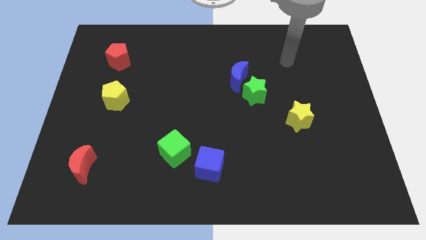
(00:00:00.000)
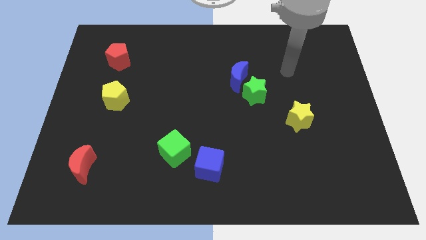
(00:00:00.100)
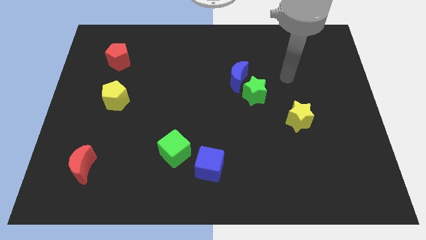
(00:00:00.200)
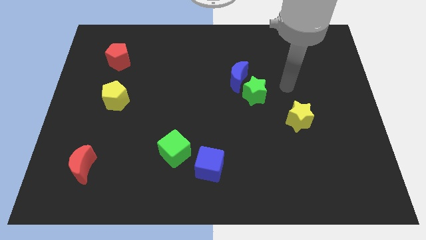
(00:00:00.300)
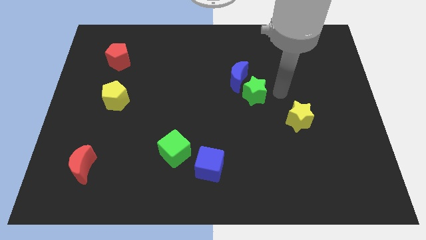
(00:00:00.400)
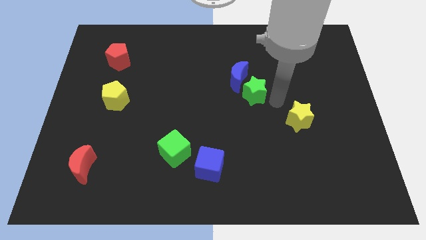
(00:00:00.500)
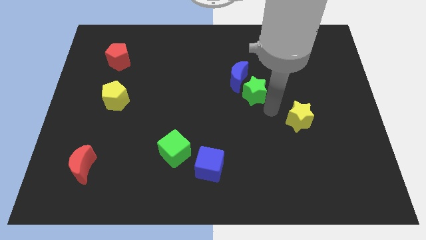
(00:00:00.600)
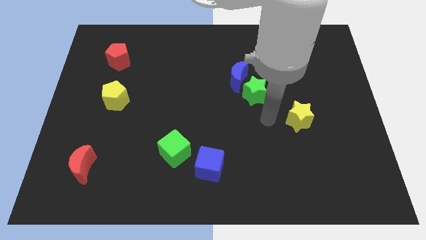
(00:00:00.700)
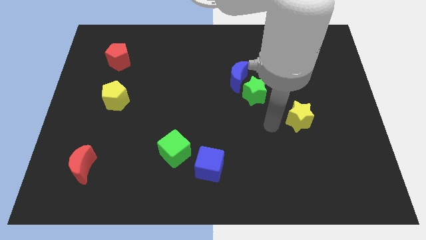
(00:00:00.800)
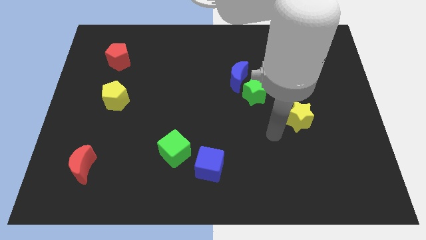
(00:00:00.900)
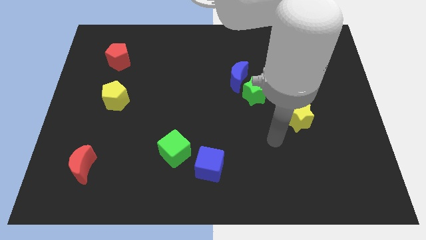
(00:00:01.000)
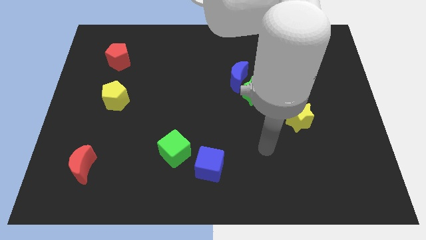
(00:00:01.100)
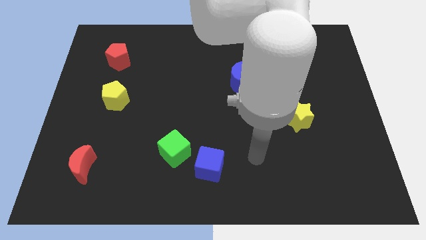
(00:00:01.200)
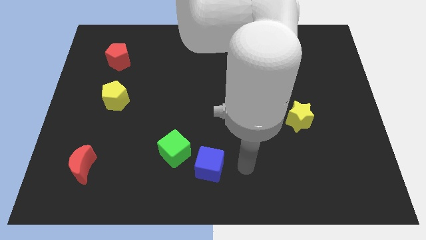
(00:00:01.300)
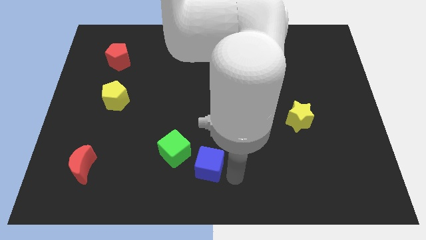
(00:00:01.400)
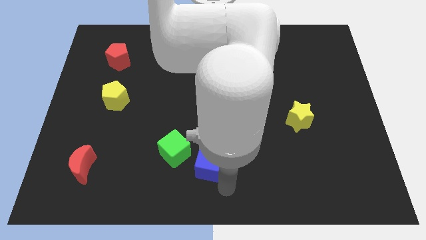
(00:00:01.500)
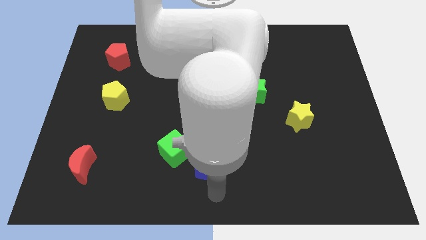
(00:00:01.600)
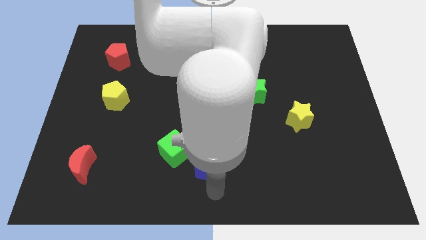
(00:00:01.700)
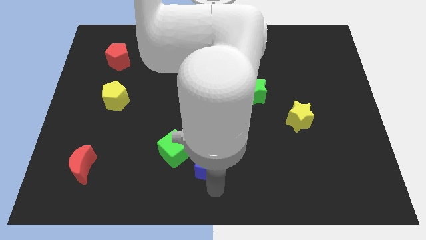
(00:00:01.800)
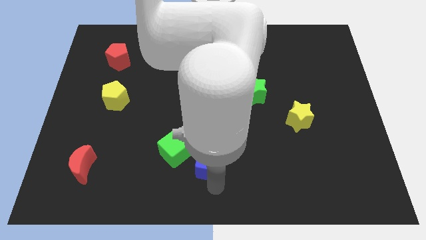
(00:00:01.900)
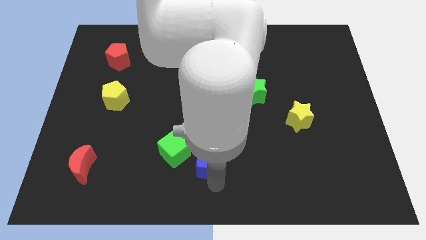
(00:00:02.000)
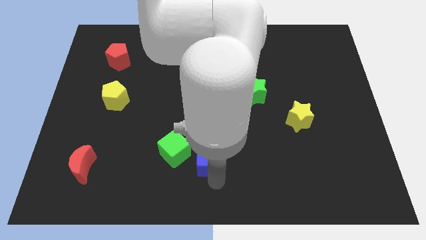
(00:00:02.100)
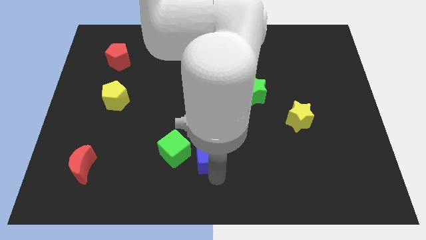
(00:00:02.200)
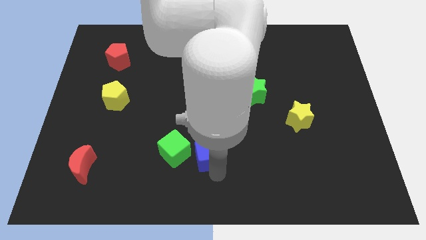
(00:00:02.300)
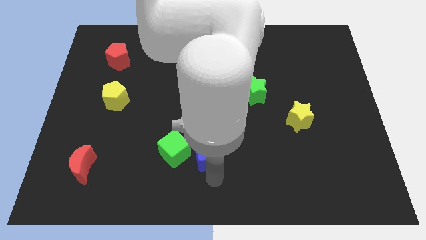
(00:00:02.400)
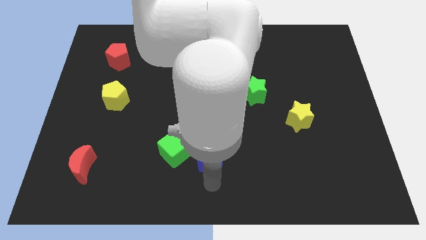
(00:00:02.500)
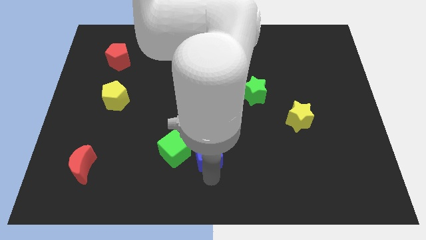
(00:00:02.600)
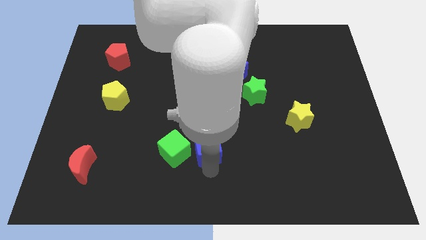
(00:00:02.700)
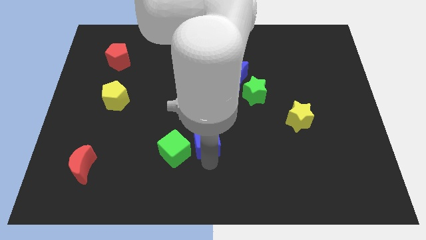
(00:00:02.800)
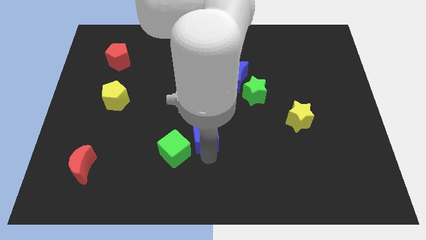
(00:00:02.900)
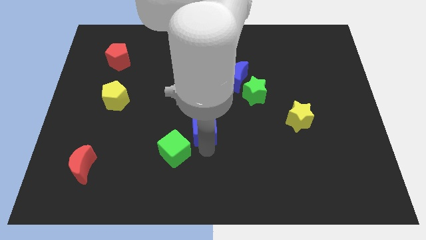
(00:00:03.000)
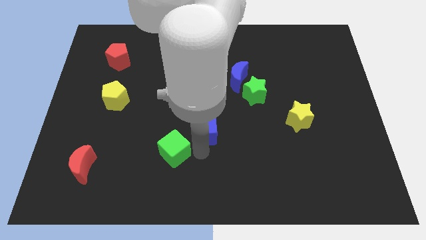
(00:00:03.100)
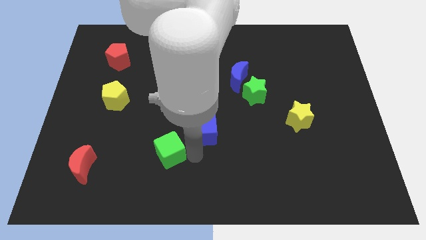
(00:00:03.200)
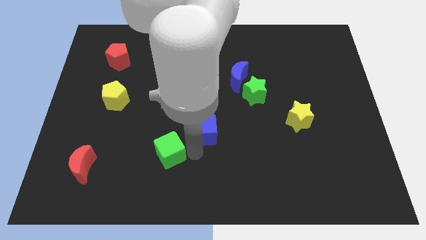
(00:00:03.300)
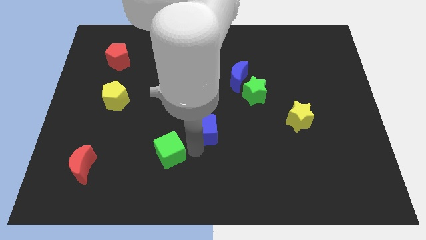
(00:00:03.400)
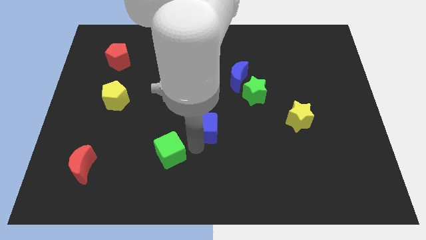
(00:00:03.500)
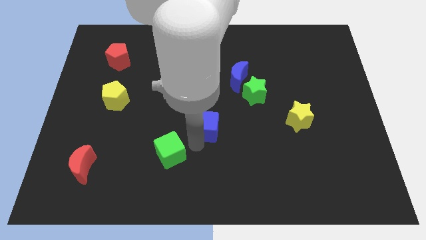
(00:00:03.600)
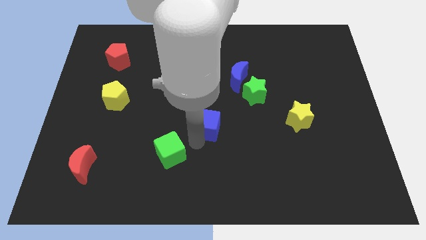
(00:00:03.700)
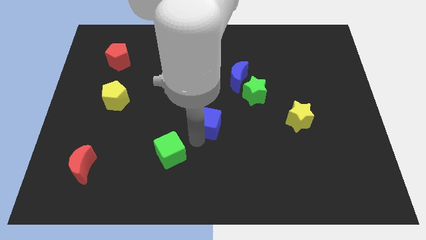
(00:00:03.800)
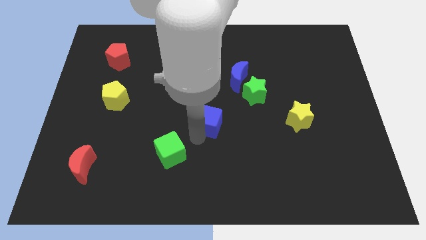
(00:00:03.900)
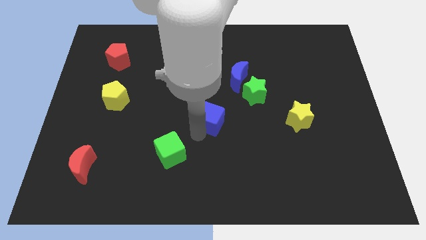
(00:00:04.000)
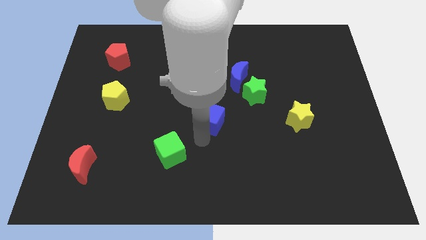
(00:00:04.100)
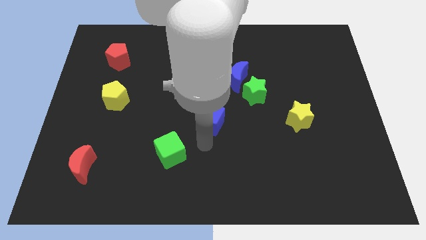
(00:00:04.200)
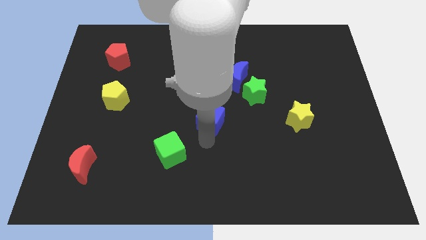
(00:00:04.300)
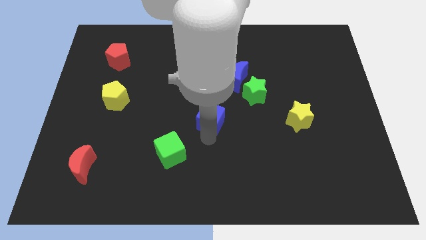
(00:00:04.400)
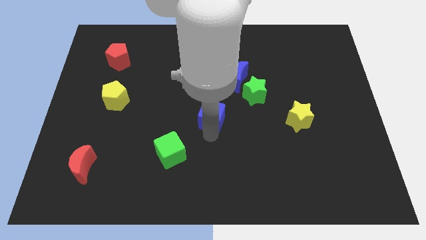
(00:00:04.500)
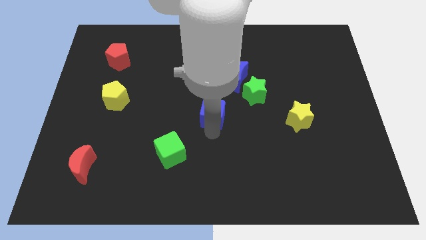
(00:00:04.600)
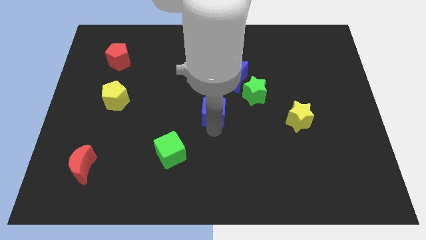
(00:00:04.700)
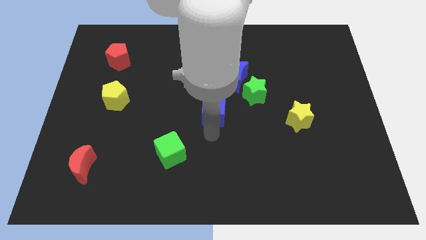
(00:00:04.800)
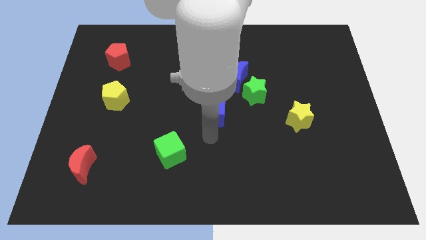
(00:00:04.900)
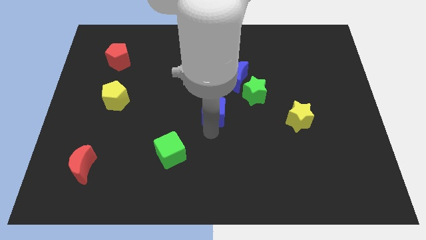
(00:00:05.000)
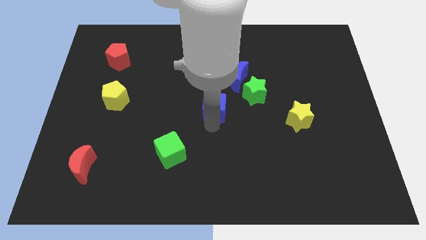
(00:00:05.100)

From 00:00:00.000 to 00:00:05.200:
slide the blue cube to the bottom left side of the blue moon

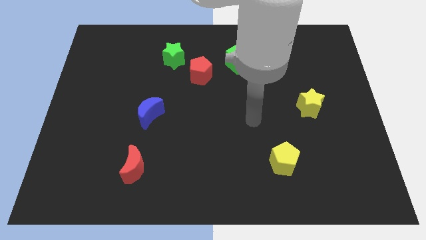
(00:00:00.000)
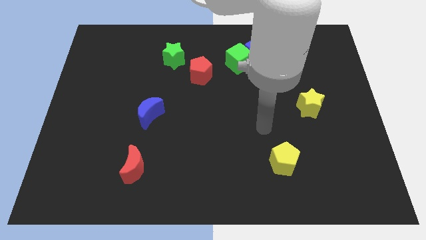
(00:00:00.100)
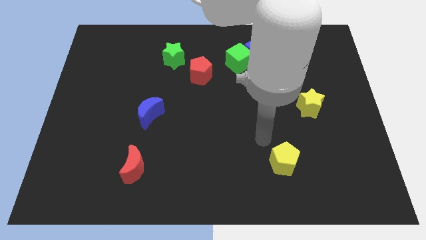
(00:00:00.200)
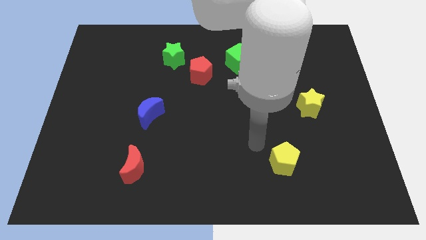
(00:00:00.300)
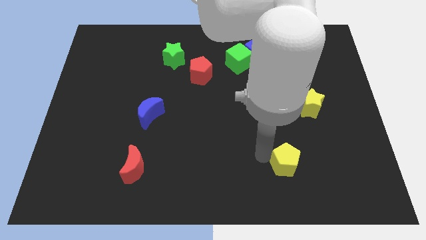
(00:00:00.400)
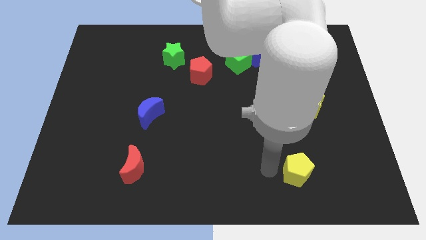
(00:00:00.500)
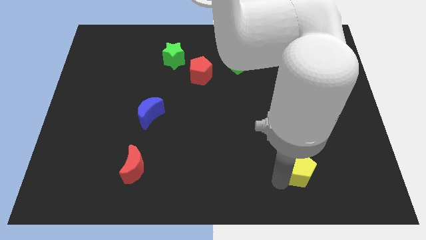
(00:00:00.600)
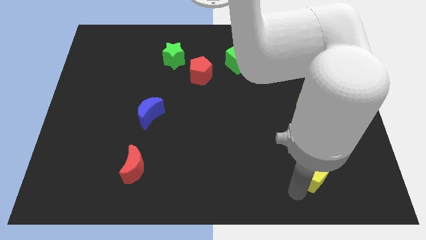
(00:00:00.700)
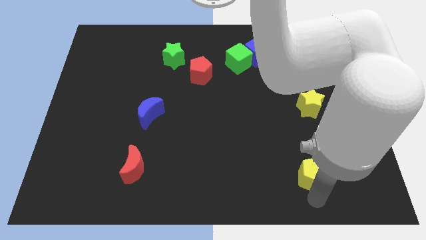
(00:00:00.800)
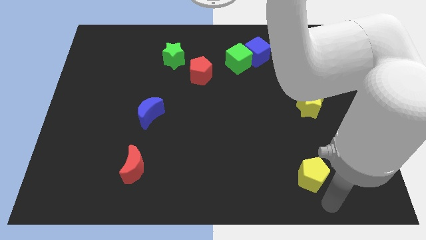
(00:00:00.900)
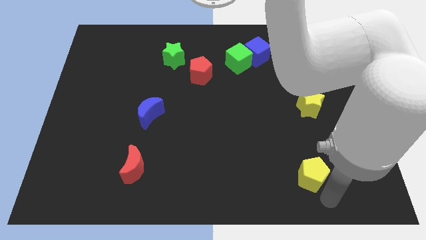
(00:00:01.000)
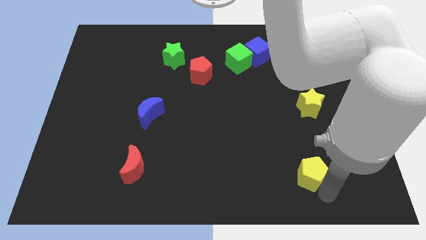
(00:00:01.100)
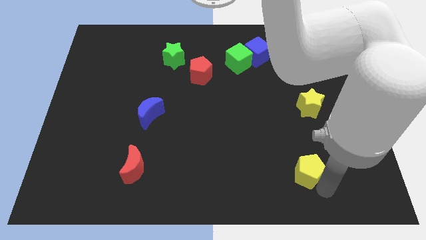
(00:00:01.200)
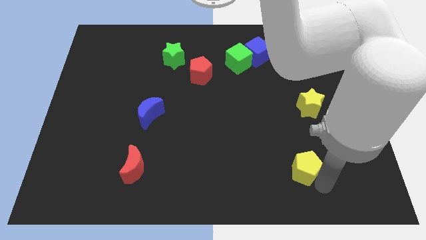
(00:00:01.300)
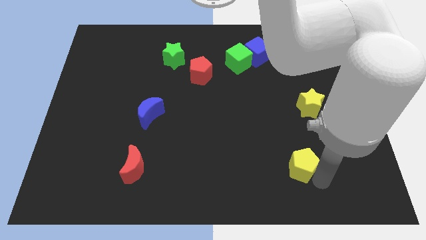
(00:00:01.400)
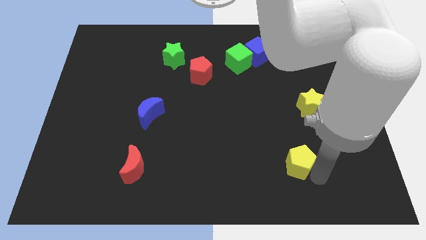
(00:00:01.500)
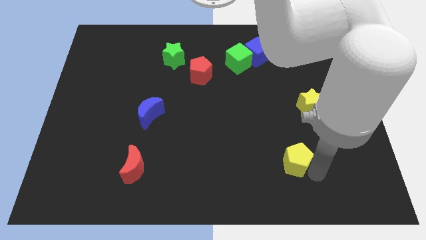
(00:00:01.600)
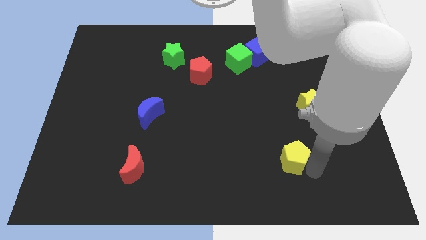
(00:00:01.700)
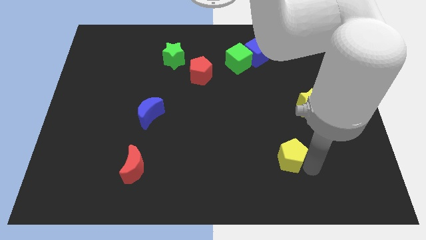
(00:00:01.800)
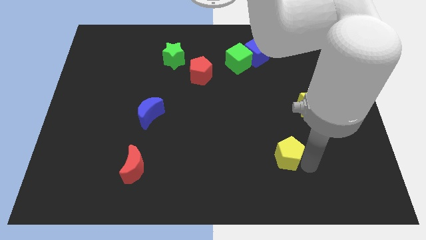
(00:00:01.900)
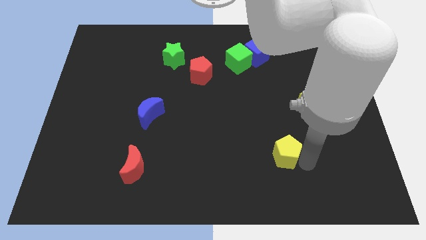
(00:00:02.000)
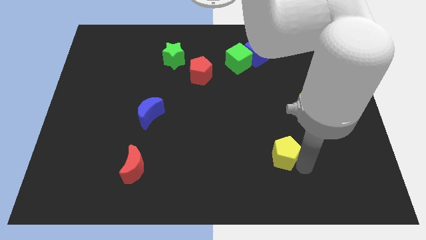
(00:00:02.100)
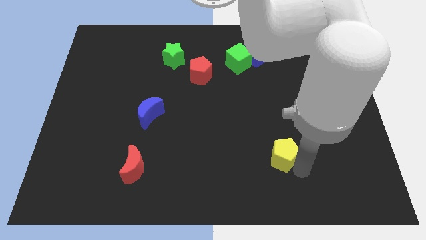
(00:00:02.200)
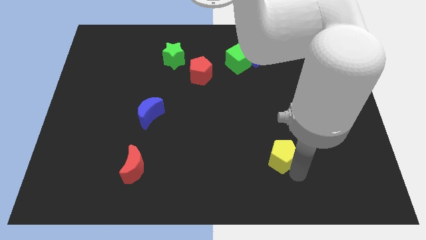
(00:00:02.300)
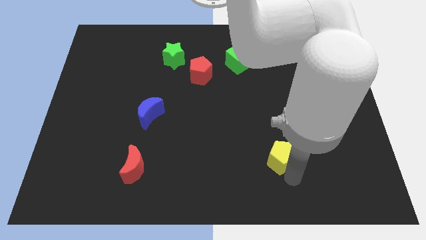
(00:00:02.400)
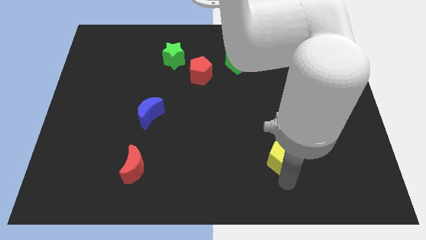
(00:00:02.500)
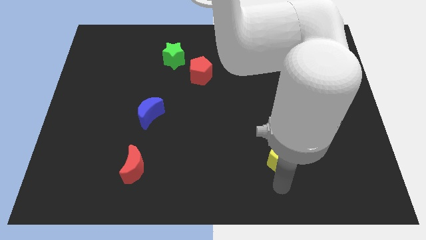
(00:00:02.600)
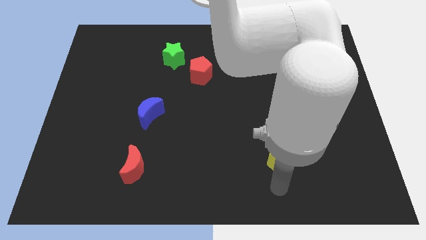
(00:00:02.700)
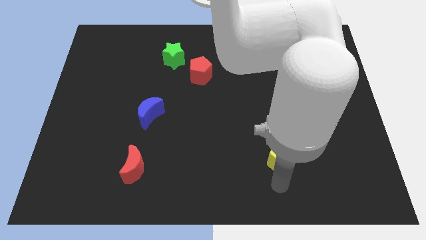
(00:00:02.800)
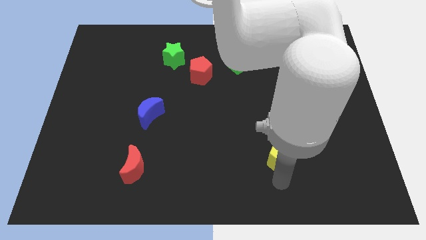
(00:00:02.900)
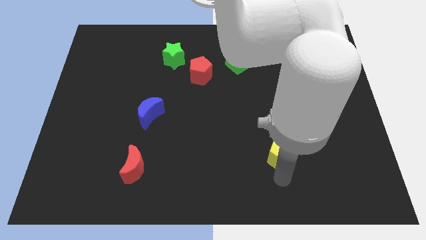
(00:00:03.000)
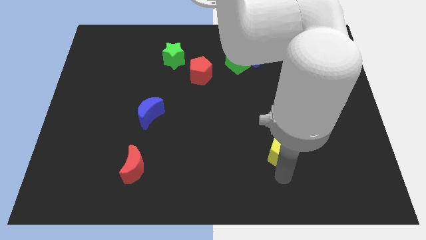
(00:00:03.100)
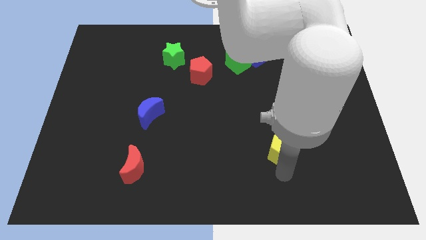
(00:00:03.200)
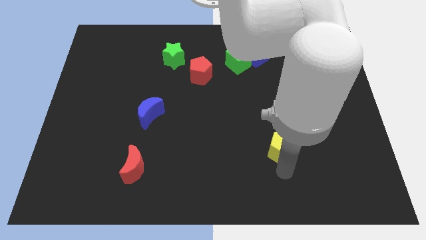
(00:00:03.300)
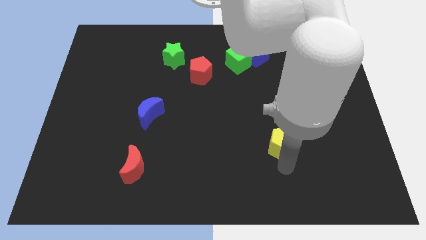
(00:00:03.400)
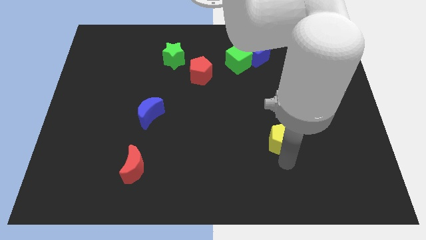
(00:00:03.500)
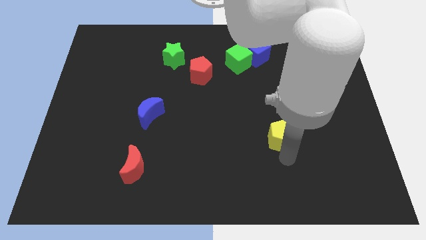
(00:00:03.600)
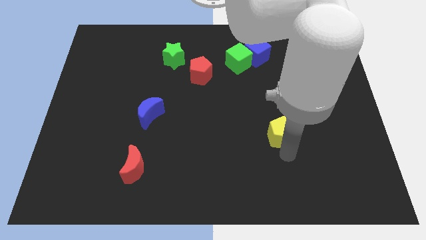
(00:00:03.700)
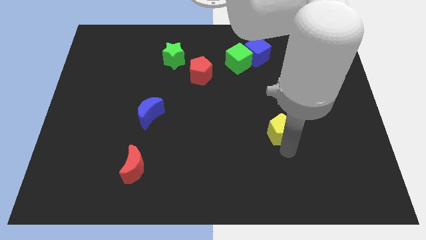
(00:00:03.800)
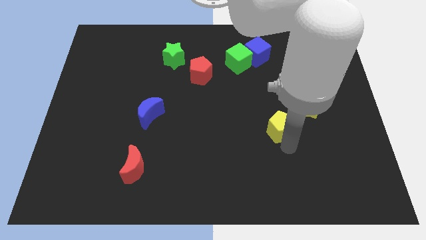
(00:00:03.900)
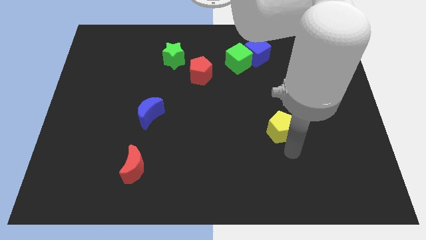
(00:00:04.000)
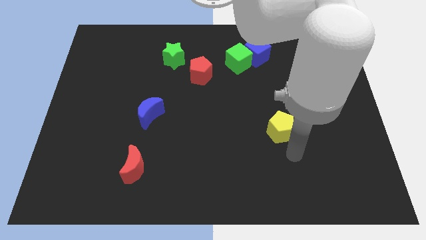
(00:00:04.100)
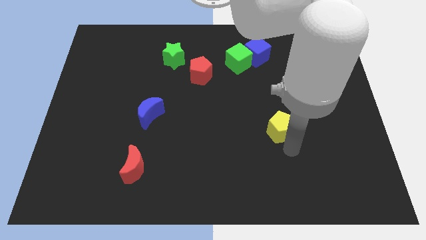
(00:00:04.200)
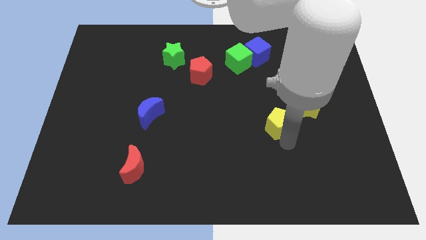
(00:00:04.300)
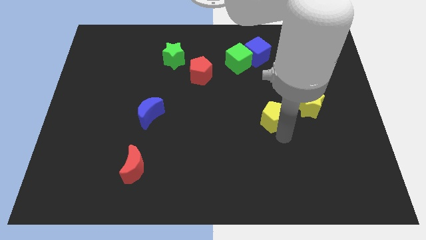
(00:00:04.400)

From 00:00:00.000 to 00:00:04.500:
slide the yellow pentagon left of the yellow star
